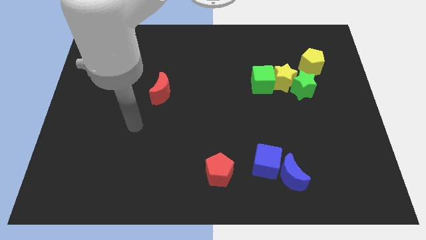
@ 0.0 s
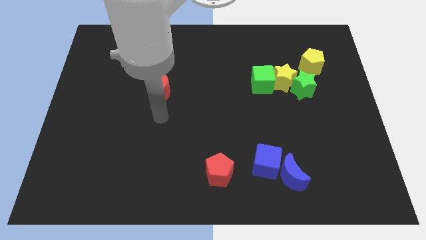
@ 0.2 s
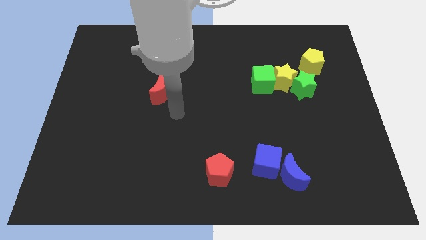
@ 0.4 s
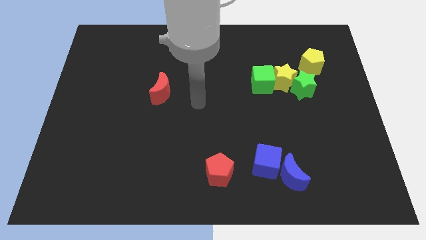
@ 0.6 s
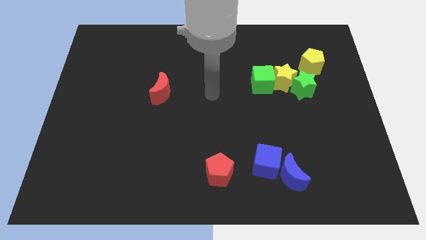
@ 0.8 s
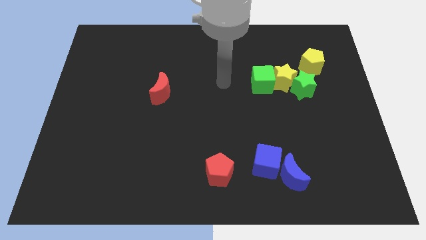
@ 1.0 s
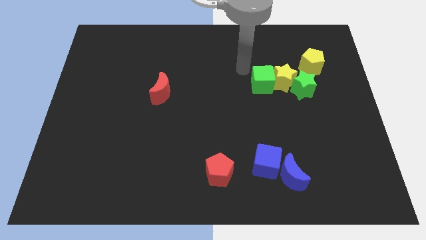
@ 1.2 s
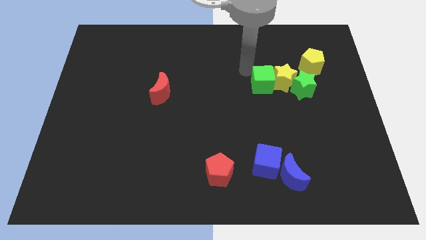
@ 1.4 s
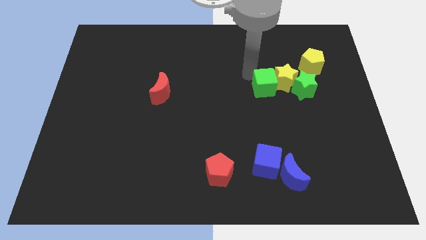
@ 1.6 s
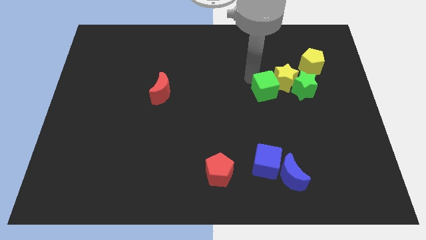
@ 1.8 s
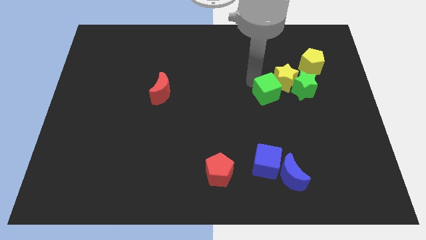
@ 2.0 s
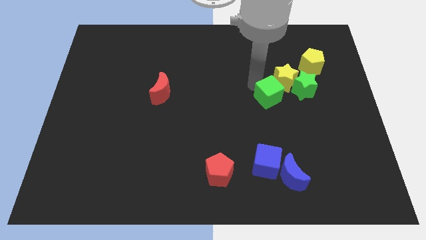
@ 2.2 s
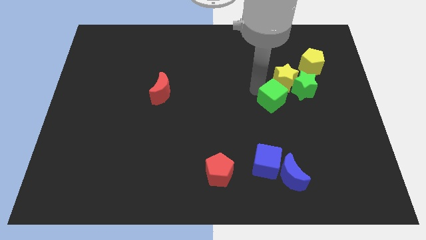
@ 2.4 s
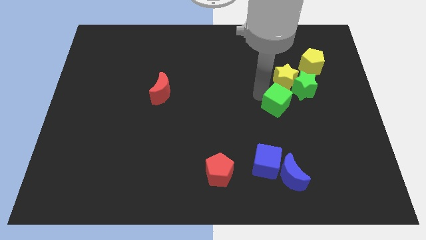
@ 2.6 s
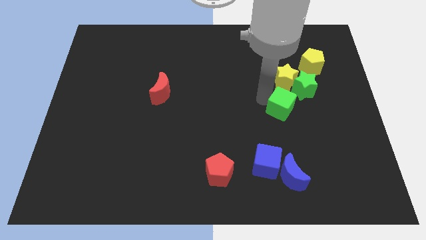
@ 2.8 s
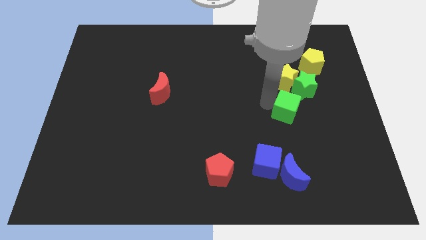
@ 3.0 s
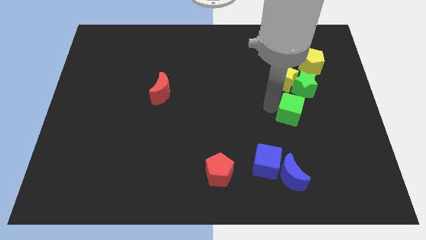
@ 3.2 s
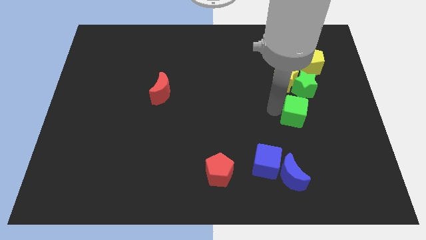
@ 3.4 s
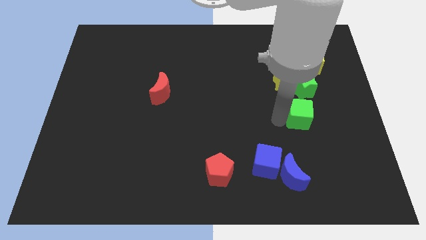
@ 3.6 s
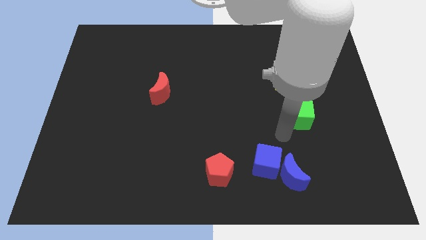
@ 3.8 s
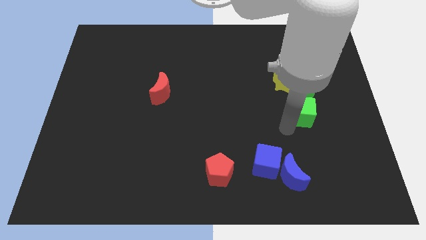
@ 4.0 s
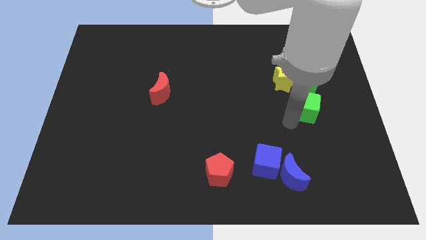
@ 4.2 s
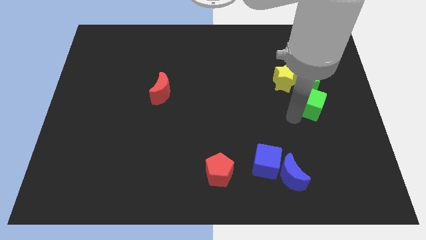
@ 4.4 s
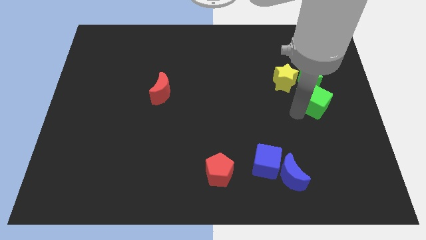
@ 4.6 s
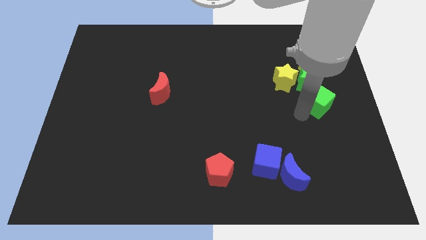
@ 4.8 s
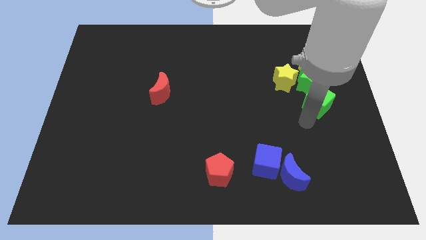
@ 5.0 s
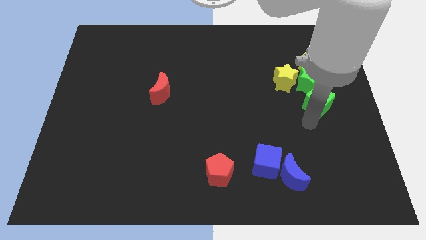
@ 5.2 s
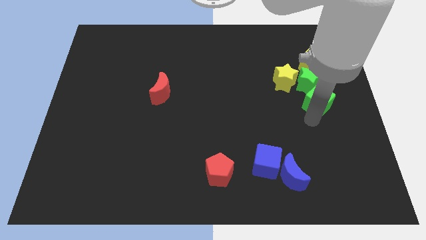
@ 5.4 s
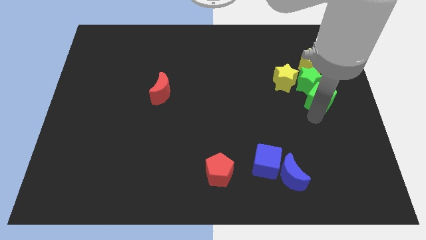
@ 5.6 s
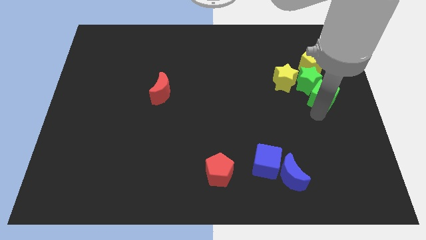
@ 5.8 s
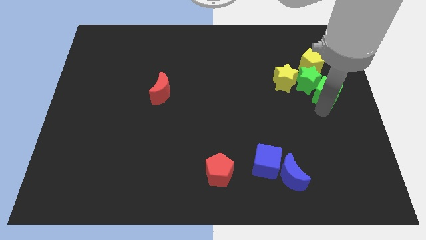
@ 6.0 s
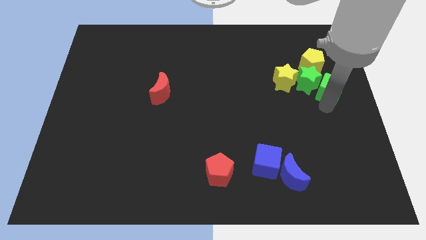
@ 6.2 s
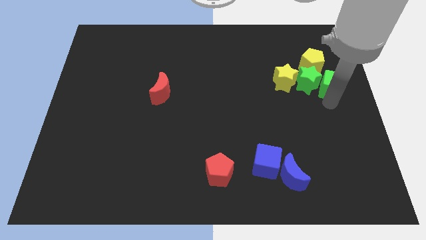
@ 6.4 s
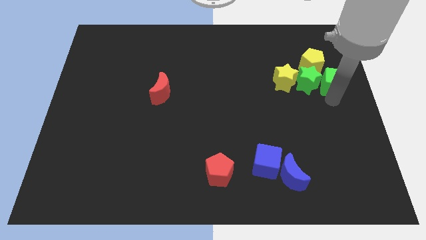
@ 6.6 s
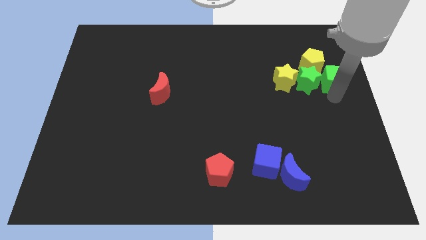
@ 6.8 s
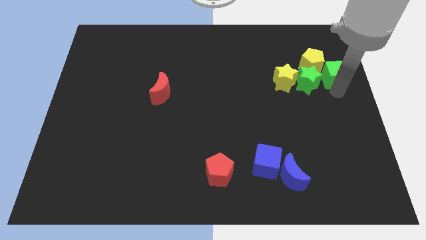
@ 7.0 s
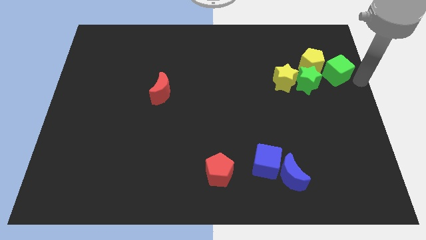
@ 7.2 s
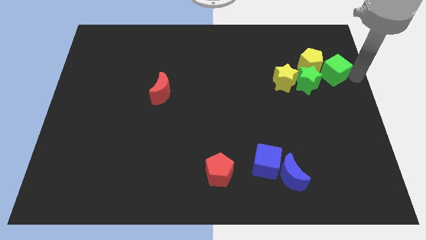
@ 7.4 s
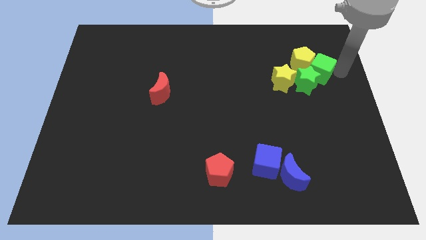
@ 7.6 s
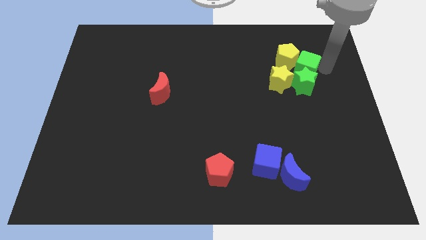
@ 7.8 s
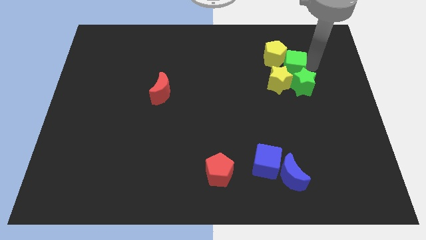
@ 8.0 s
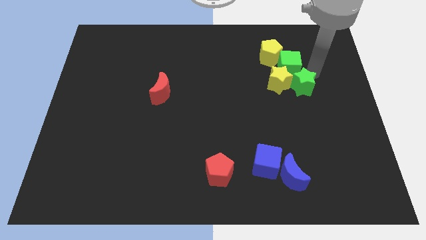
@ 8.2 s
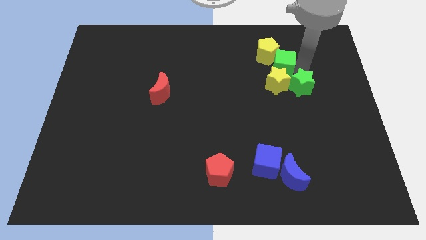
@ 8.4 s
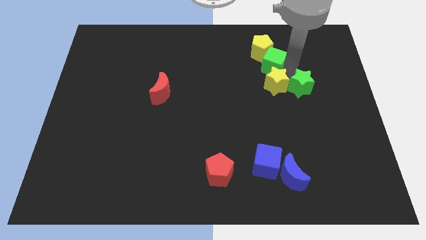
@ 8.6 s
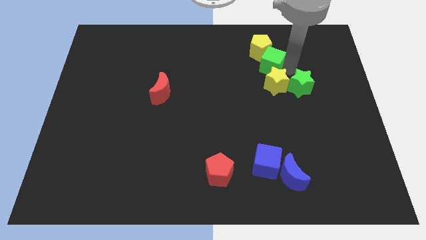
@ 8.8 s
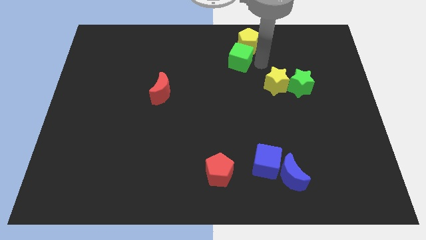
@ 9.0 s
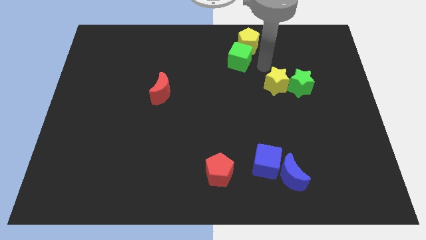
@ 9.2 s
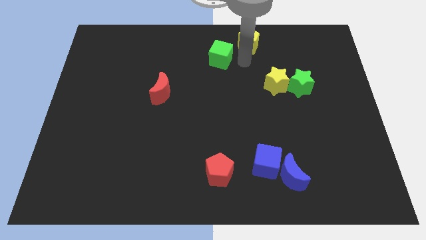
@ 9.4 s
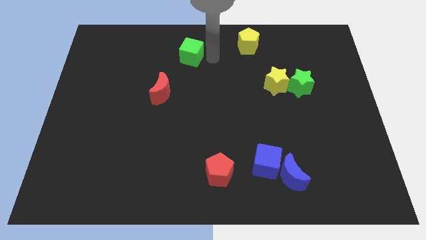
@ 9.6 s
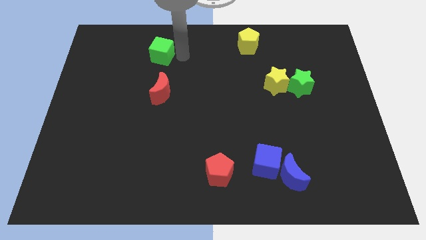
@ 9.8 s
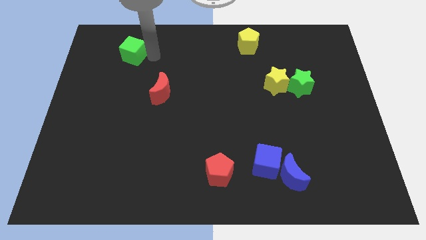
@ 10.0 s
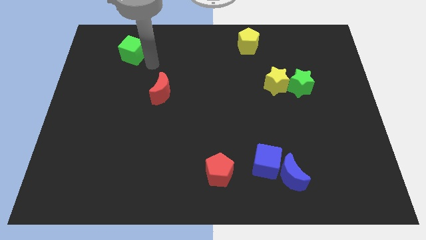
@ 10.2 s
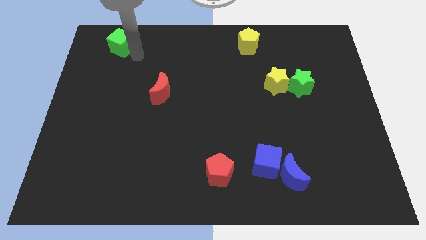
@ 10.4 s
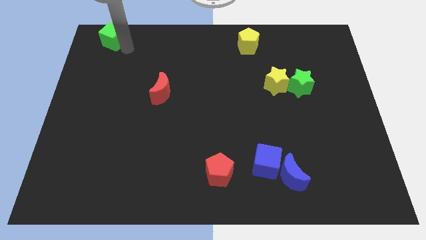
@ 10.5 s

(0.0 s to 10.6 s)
slide the green cube to the top left corner
